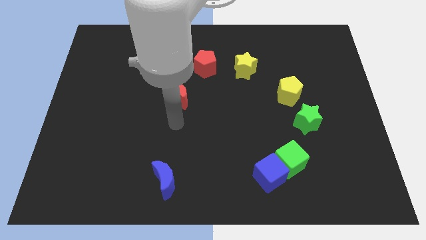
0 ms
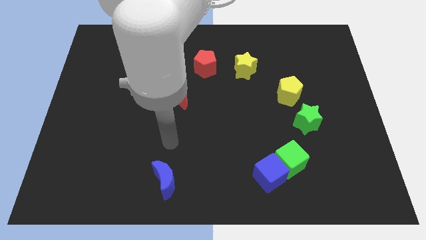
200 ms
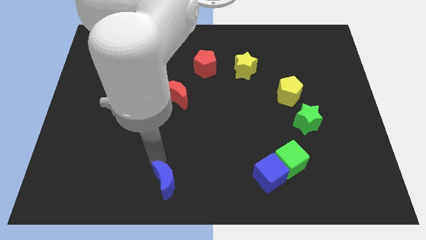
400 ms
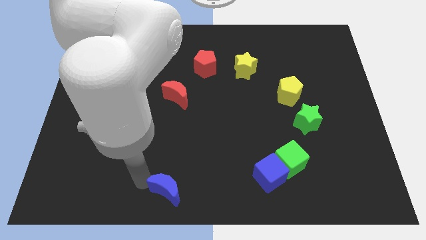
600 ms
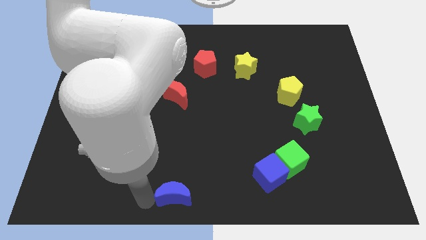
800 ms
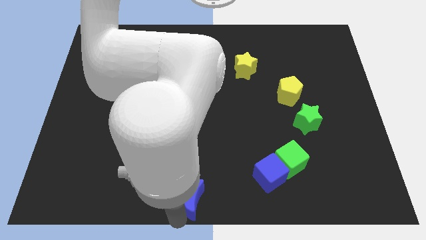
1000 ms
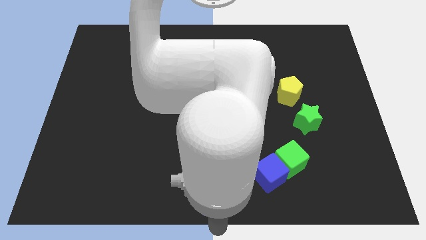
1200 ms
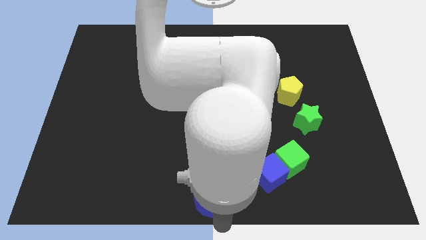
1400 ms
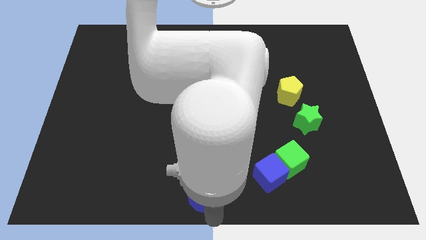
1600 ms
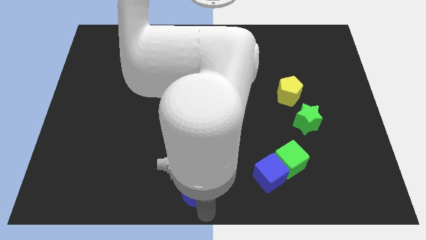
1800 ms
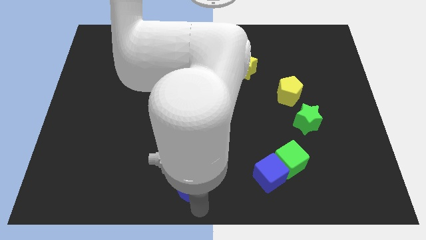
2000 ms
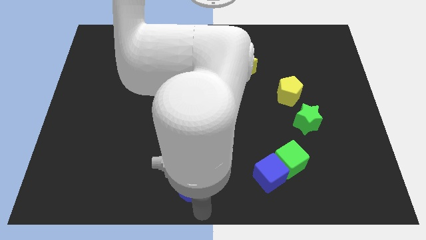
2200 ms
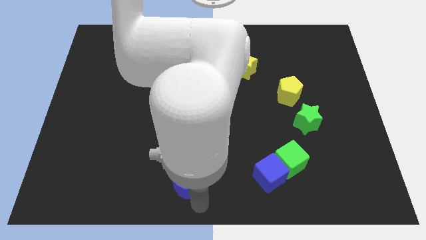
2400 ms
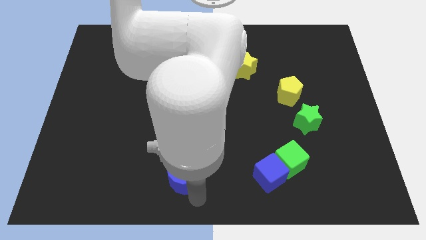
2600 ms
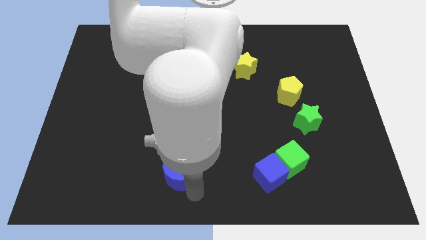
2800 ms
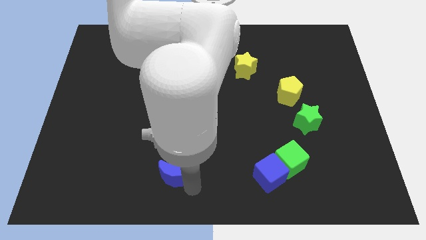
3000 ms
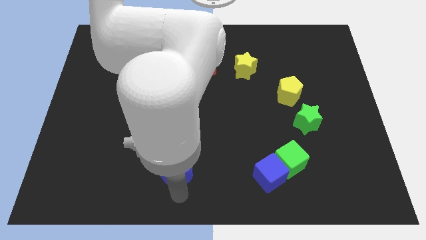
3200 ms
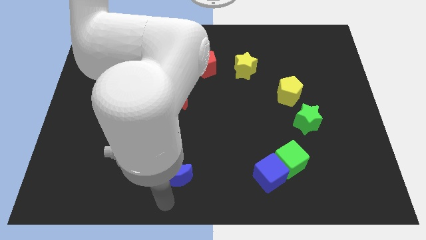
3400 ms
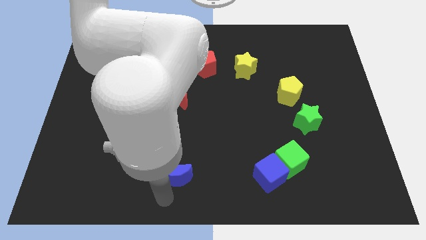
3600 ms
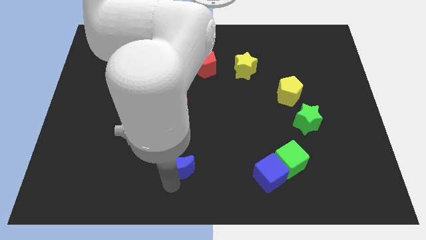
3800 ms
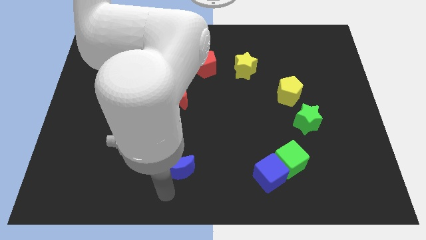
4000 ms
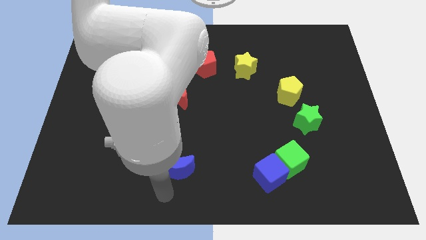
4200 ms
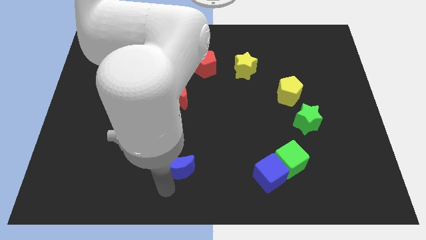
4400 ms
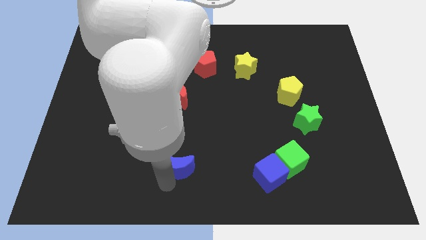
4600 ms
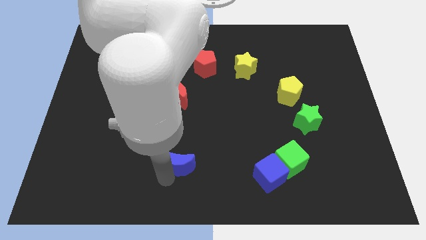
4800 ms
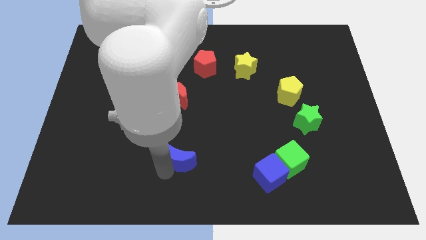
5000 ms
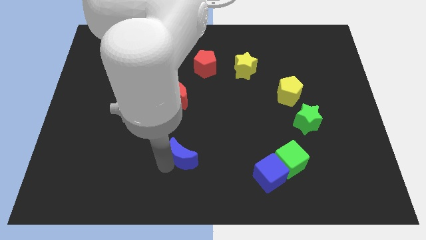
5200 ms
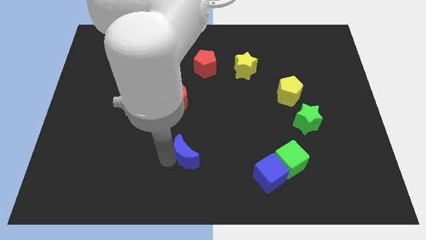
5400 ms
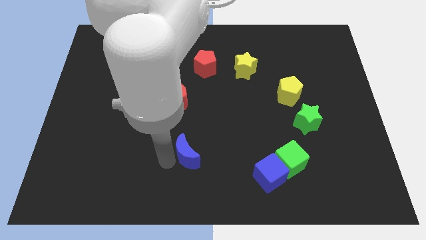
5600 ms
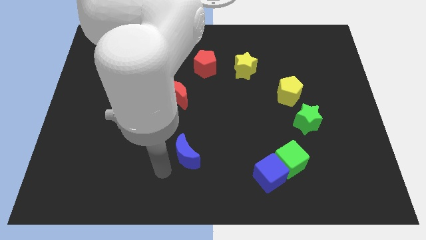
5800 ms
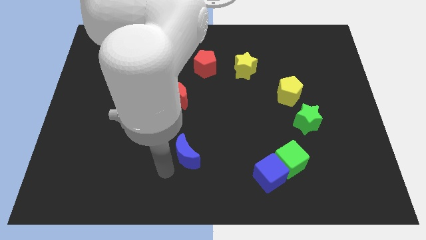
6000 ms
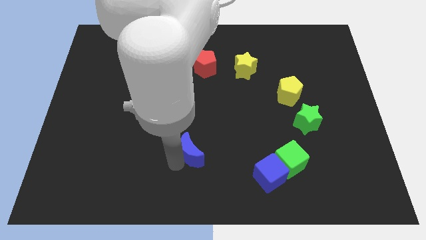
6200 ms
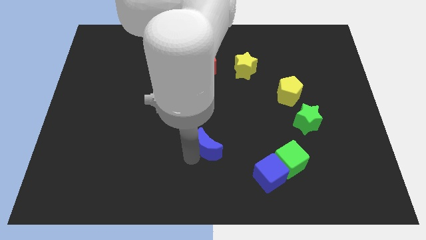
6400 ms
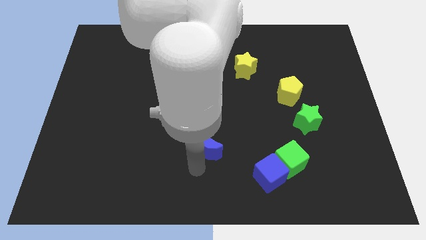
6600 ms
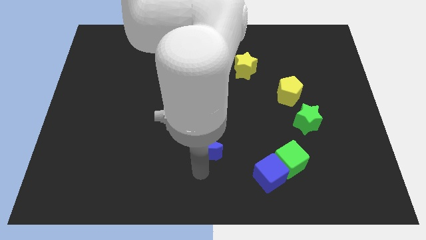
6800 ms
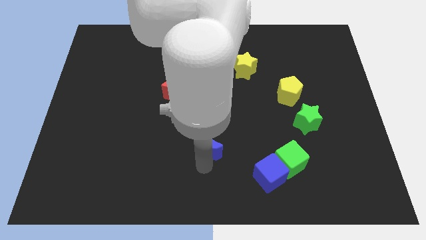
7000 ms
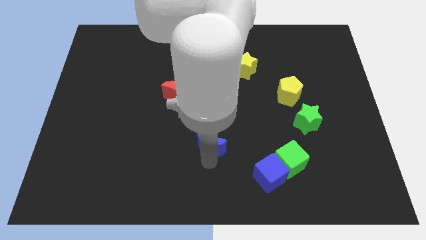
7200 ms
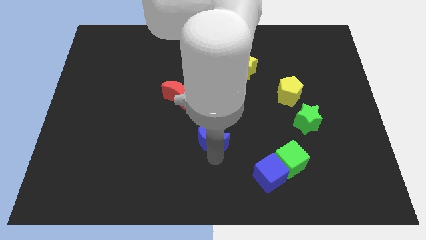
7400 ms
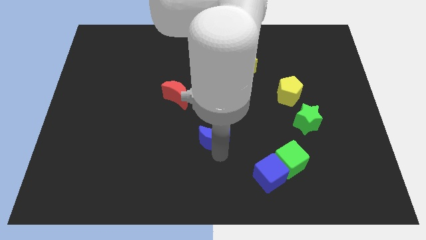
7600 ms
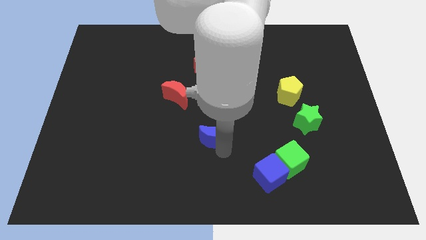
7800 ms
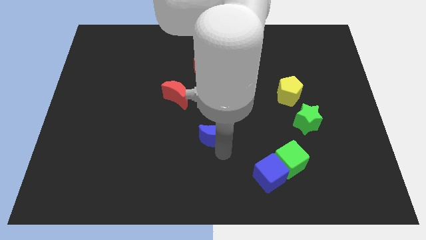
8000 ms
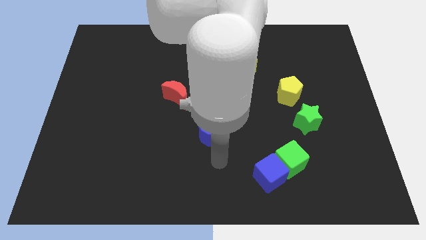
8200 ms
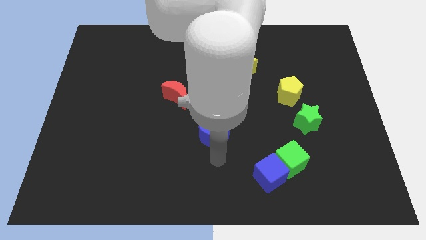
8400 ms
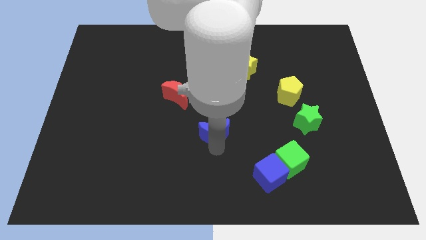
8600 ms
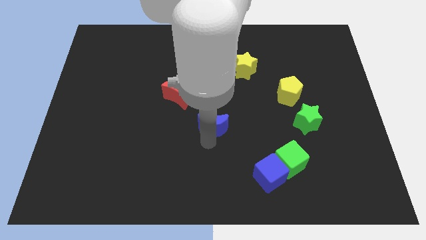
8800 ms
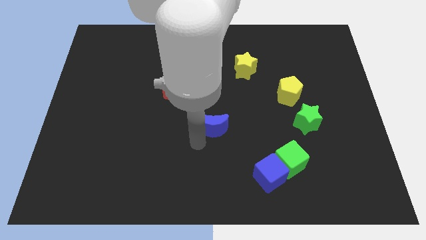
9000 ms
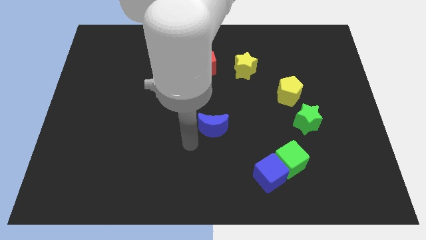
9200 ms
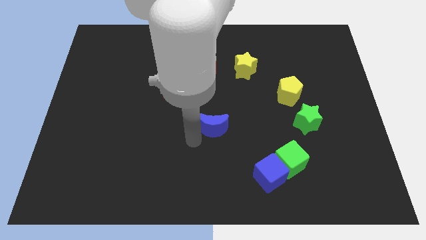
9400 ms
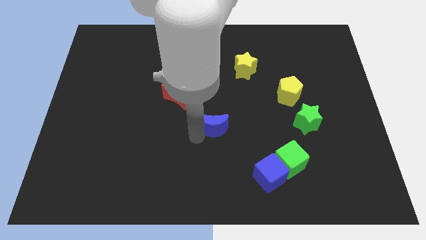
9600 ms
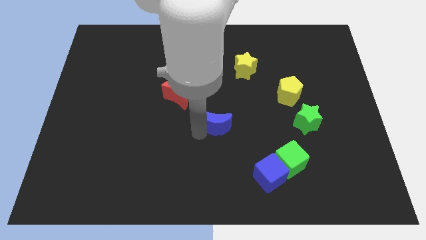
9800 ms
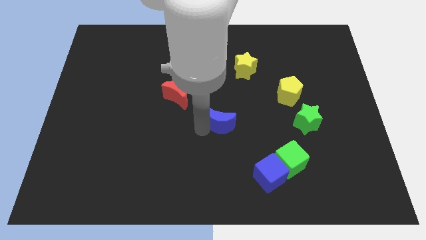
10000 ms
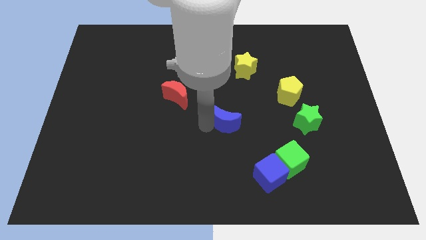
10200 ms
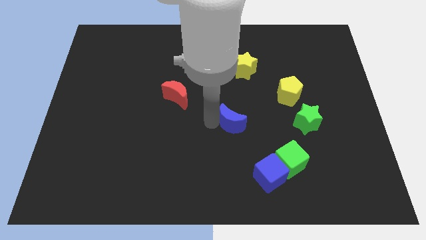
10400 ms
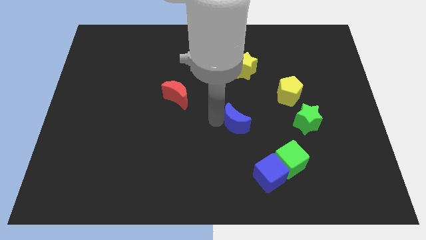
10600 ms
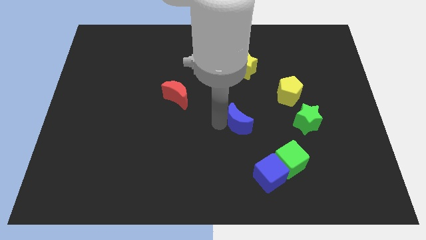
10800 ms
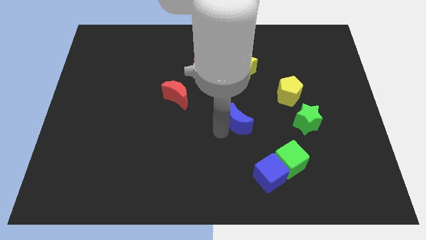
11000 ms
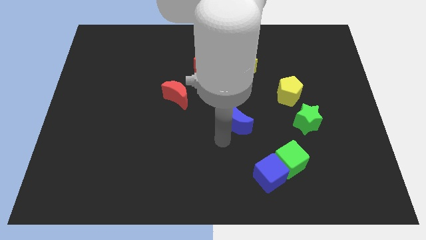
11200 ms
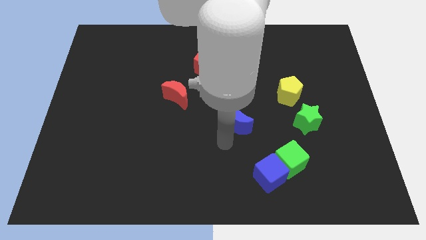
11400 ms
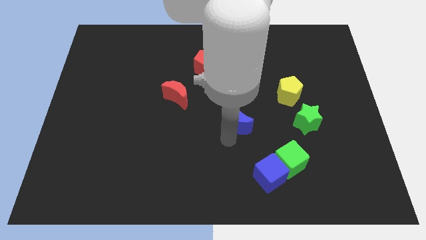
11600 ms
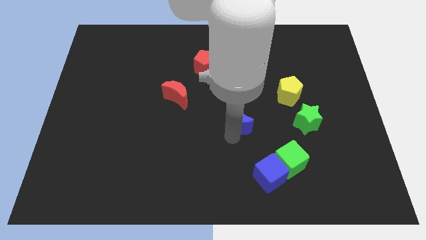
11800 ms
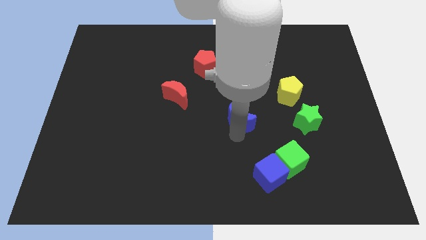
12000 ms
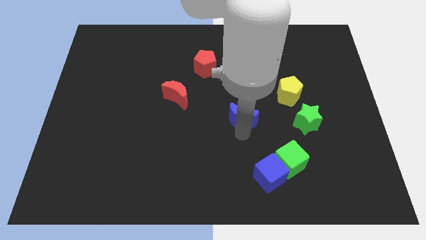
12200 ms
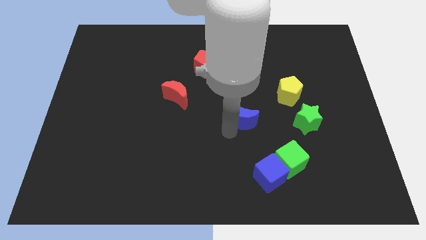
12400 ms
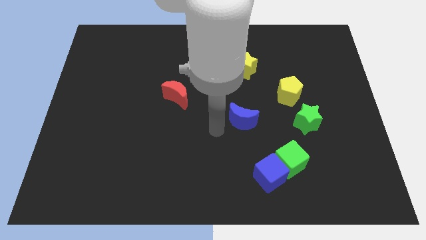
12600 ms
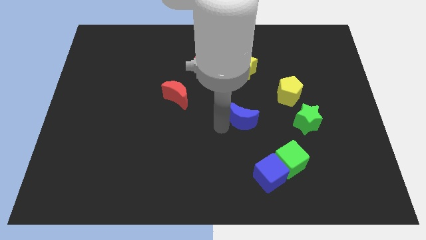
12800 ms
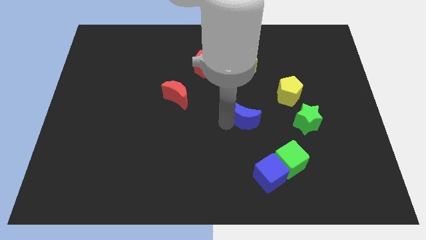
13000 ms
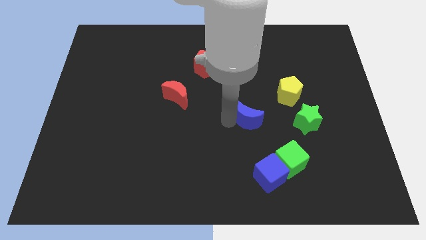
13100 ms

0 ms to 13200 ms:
slide the blue moon diagonally down and to the left of the yellow pentagon
